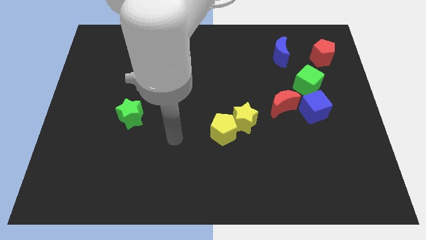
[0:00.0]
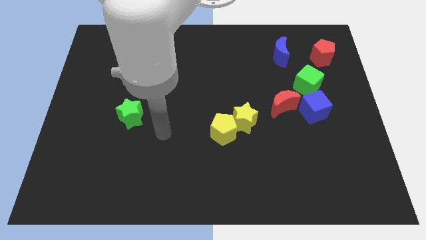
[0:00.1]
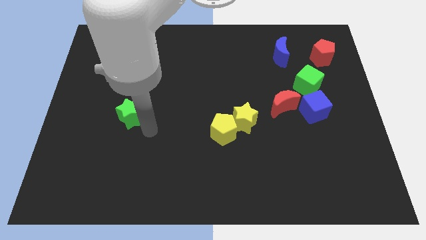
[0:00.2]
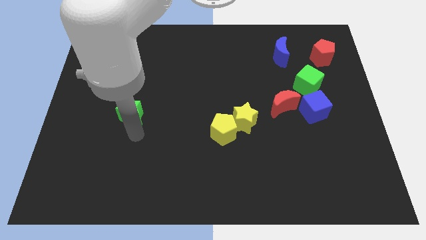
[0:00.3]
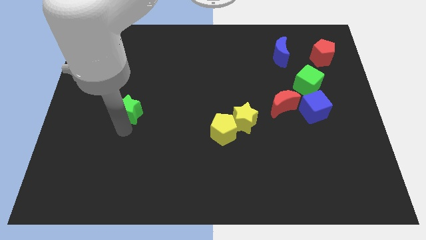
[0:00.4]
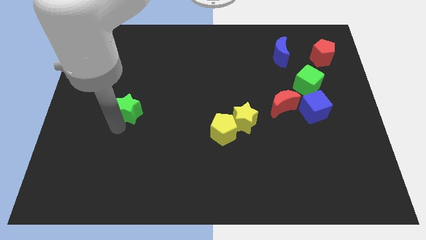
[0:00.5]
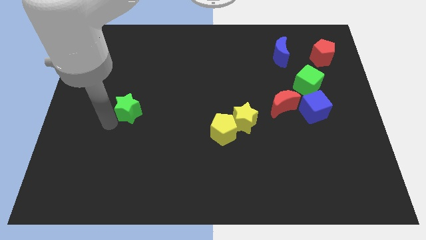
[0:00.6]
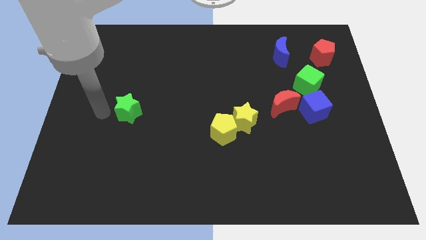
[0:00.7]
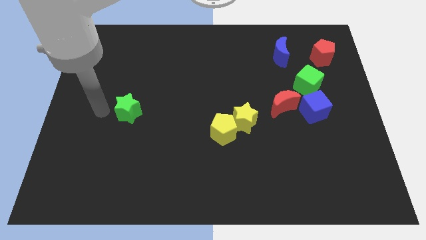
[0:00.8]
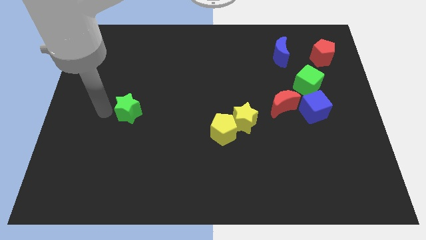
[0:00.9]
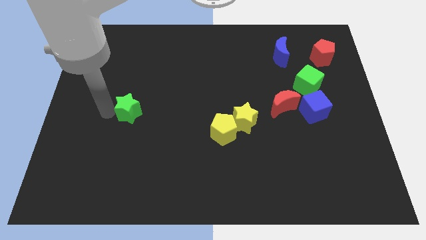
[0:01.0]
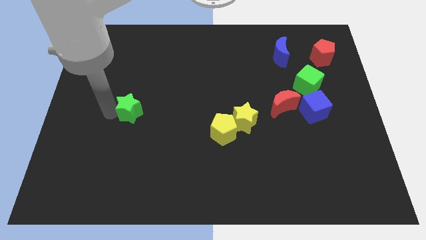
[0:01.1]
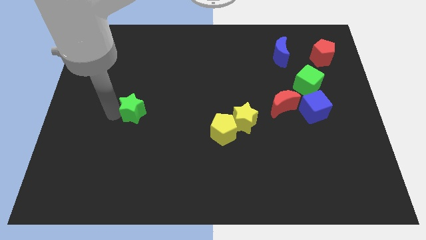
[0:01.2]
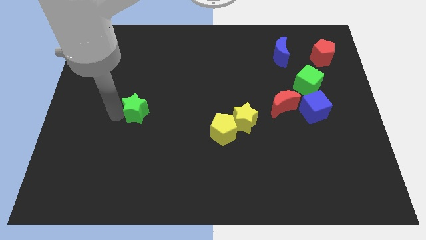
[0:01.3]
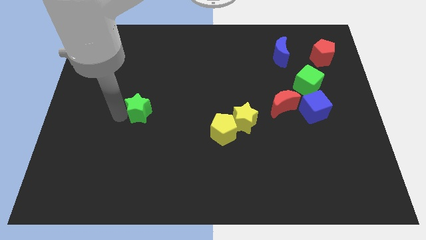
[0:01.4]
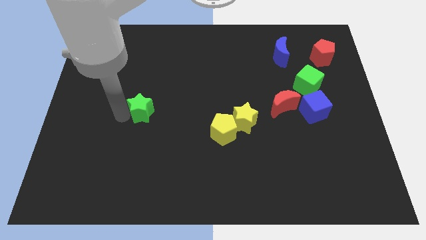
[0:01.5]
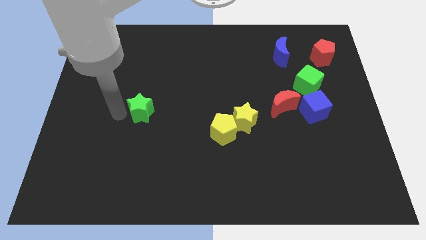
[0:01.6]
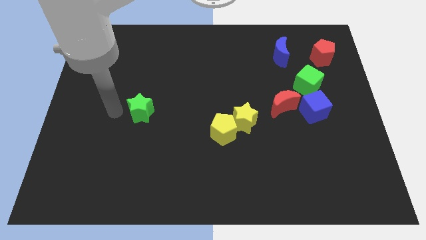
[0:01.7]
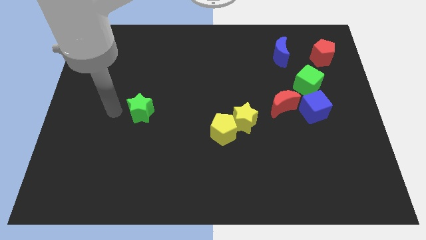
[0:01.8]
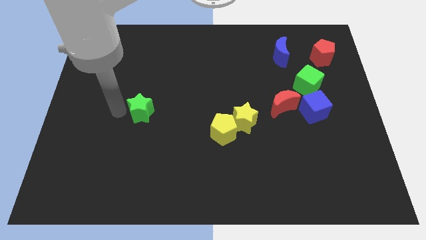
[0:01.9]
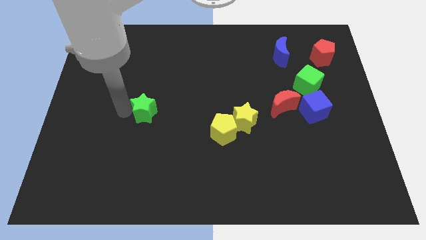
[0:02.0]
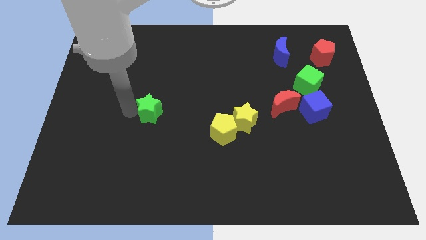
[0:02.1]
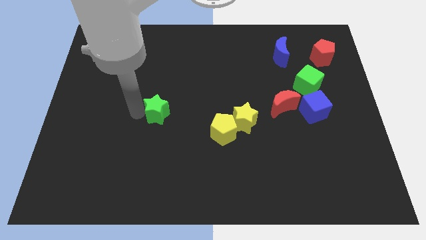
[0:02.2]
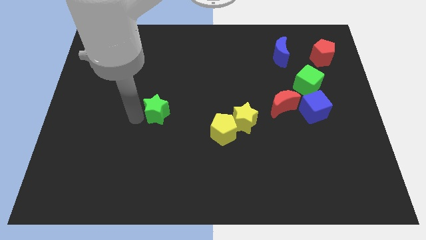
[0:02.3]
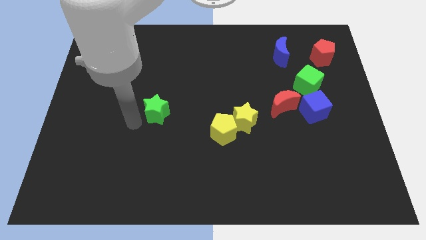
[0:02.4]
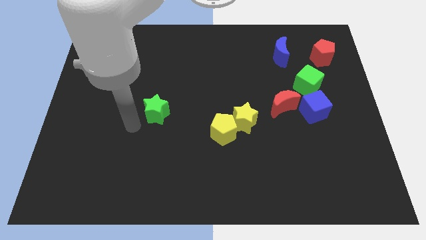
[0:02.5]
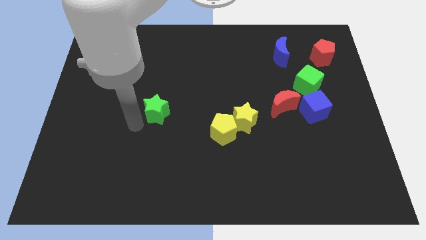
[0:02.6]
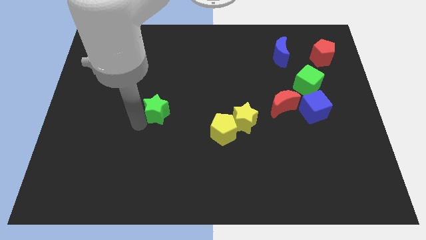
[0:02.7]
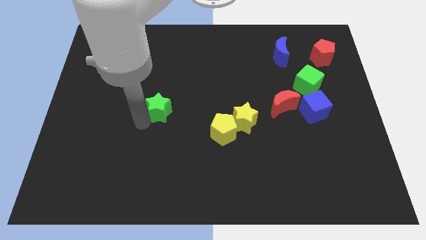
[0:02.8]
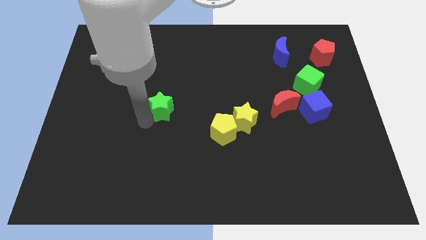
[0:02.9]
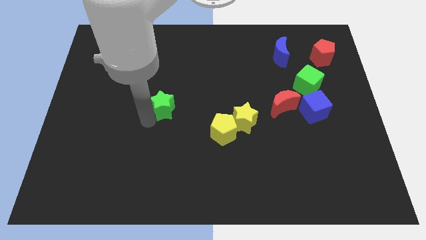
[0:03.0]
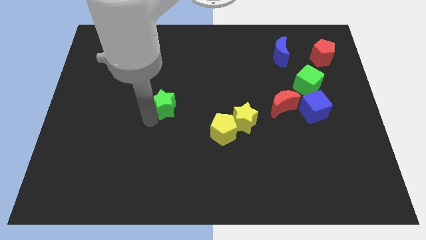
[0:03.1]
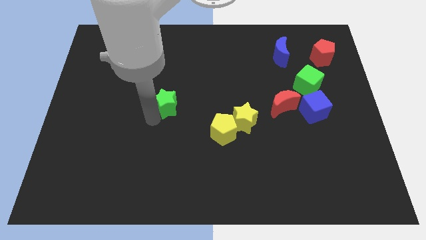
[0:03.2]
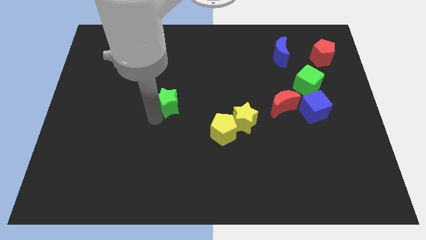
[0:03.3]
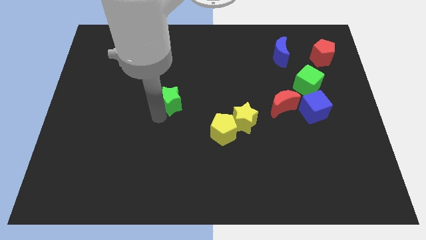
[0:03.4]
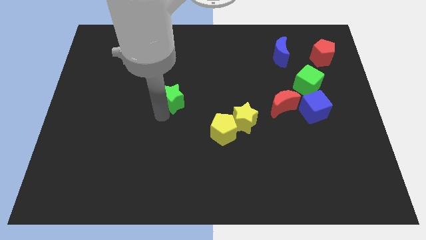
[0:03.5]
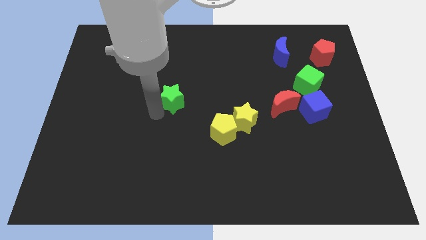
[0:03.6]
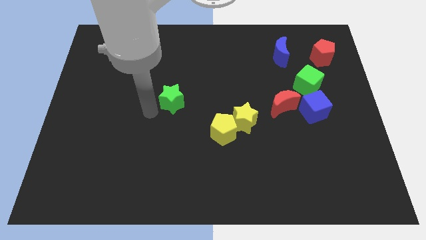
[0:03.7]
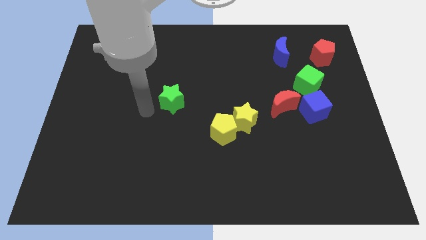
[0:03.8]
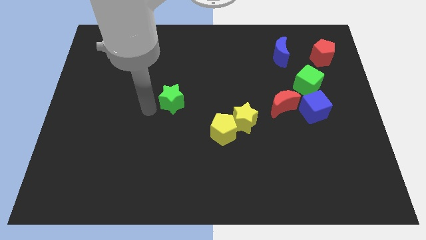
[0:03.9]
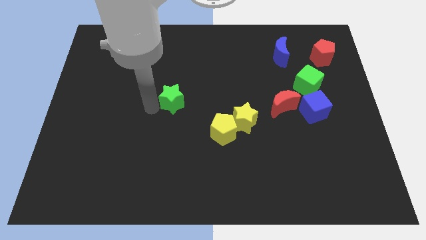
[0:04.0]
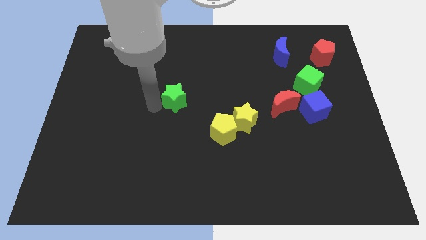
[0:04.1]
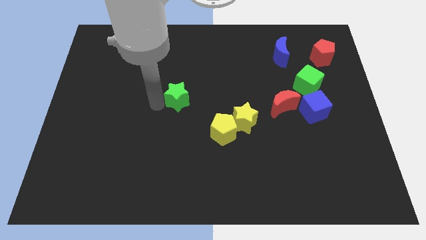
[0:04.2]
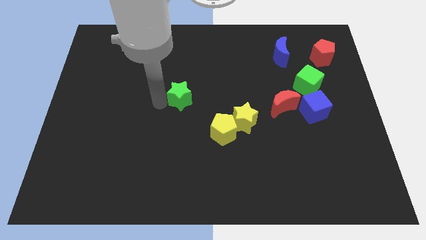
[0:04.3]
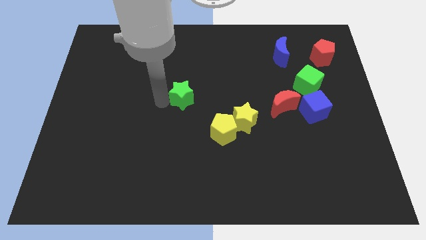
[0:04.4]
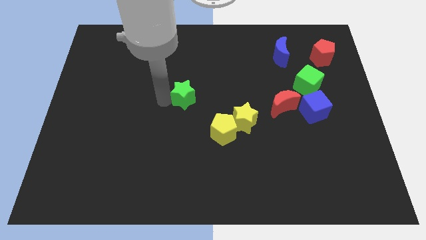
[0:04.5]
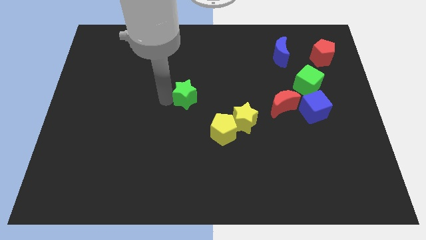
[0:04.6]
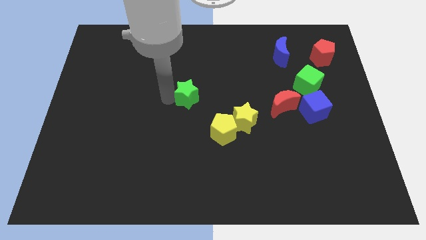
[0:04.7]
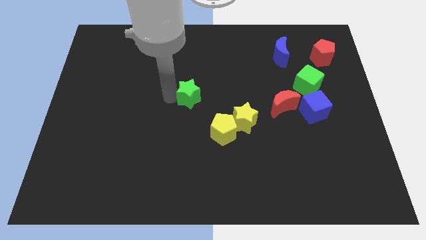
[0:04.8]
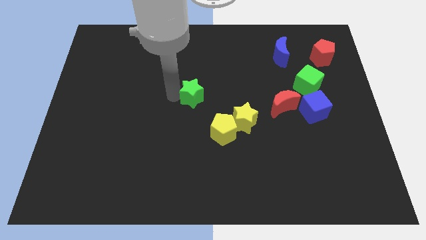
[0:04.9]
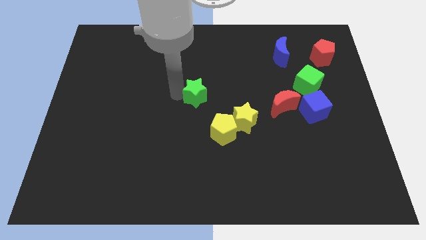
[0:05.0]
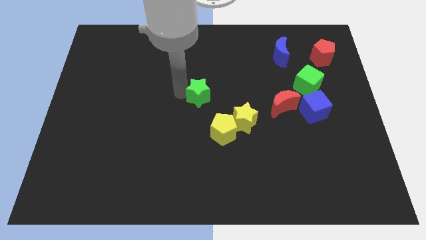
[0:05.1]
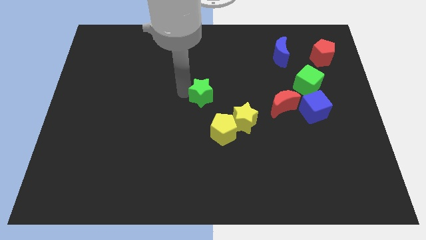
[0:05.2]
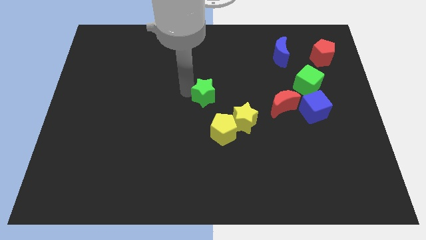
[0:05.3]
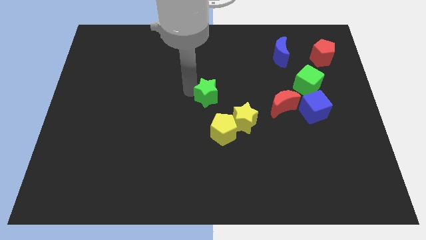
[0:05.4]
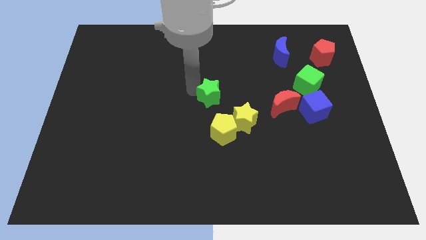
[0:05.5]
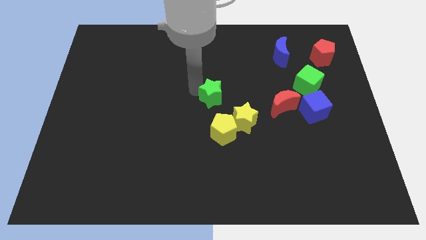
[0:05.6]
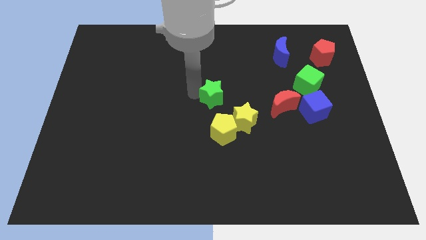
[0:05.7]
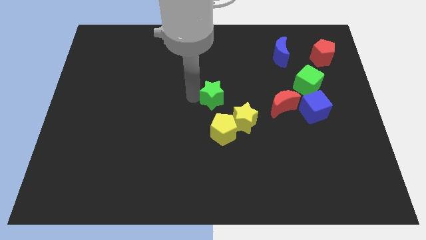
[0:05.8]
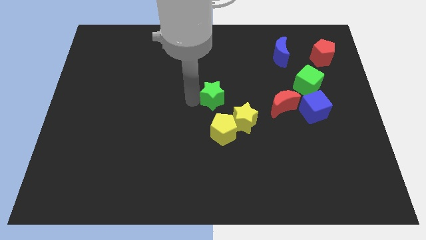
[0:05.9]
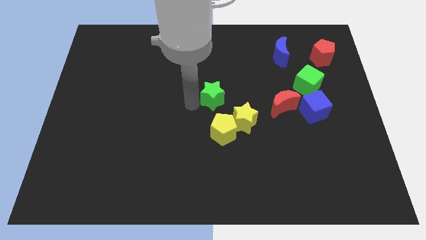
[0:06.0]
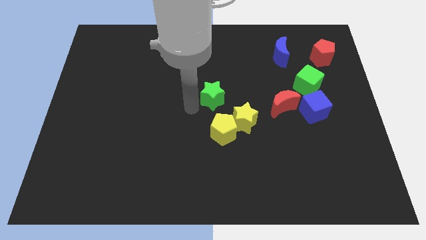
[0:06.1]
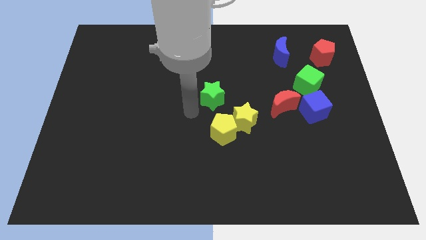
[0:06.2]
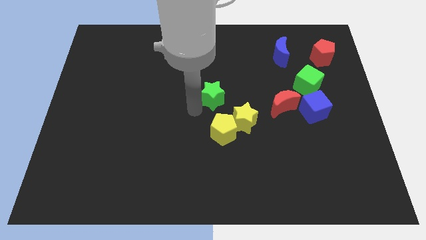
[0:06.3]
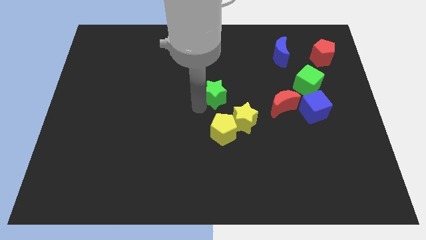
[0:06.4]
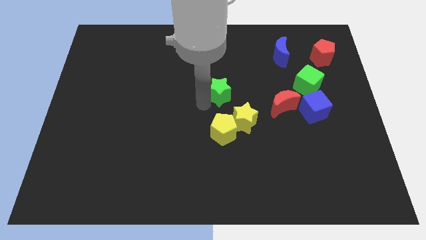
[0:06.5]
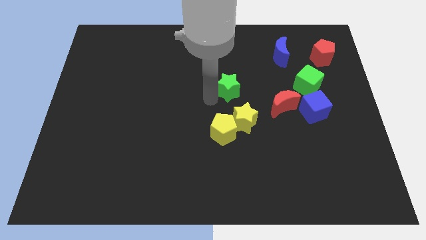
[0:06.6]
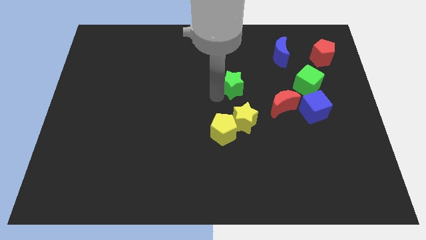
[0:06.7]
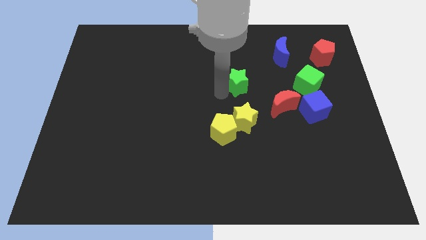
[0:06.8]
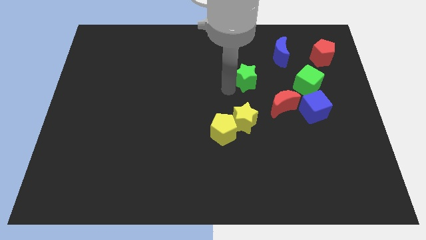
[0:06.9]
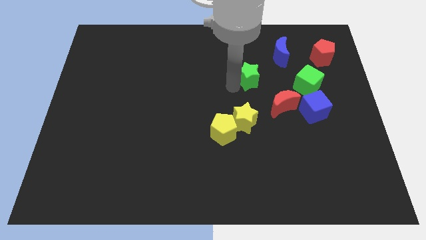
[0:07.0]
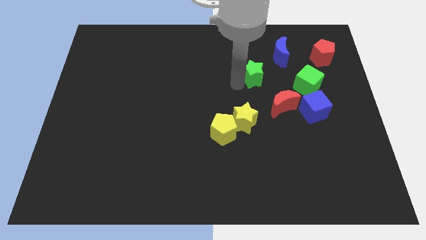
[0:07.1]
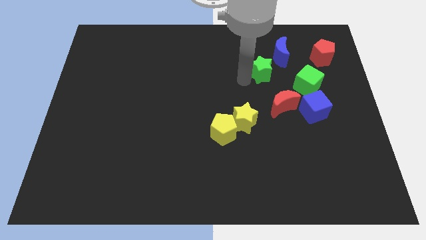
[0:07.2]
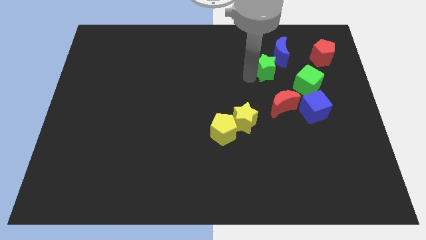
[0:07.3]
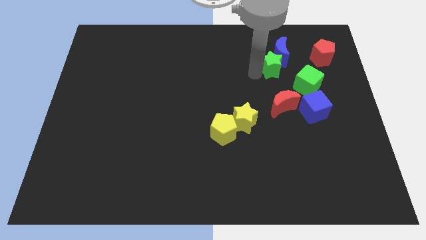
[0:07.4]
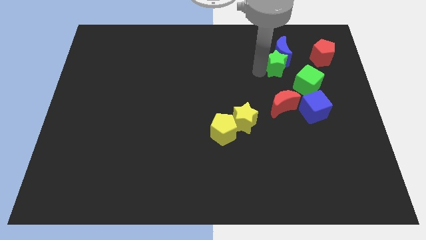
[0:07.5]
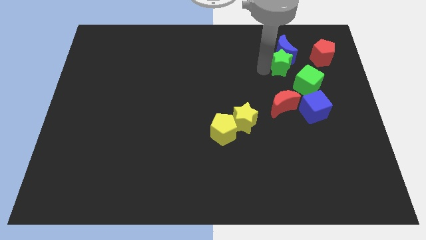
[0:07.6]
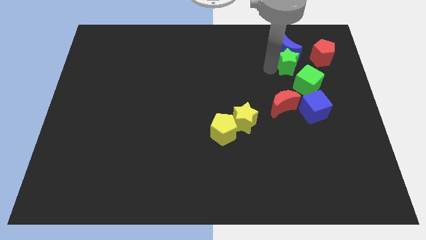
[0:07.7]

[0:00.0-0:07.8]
put the green star to the top side of the green cube
